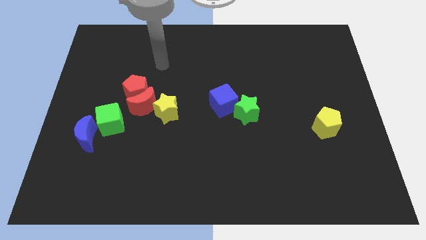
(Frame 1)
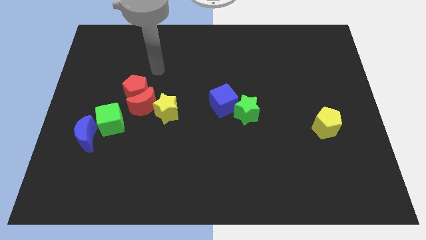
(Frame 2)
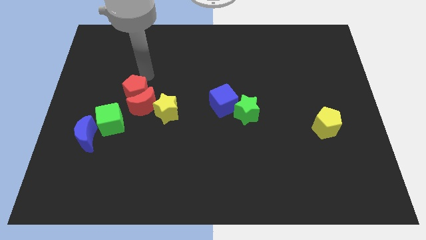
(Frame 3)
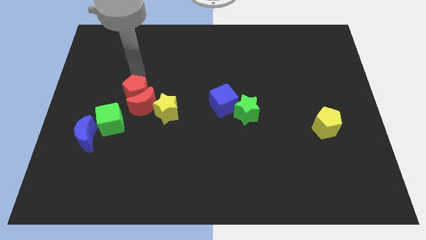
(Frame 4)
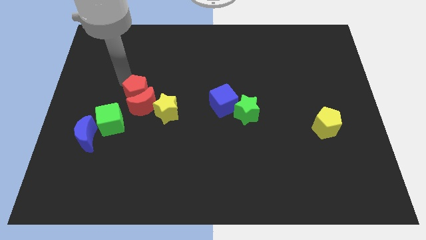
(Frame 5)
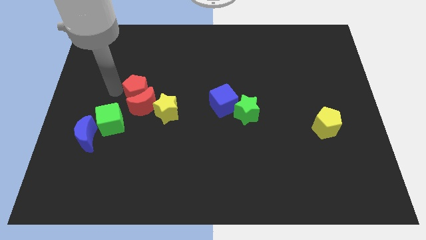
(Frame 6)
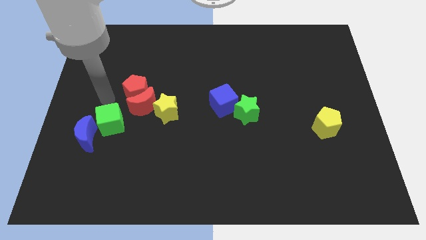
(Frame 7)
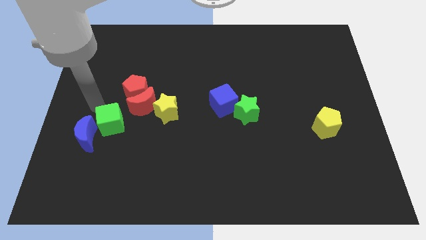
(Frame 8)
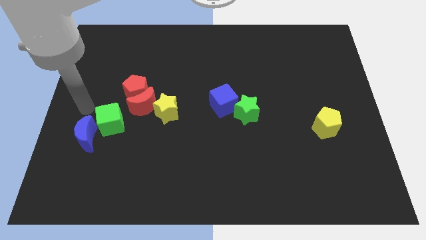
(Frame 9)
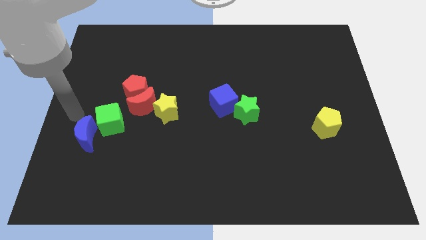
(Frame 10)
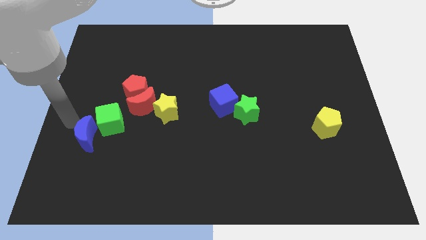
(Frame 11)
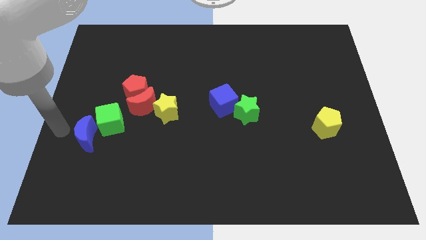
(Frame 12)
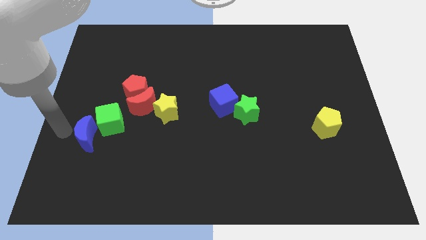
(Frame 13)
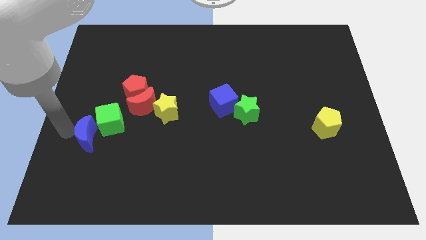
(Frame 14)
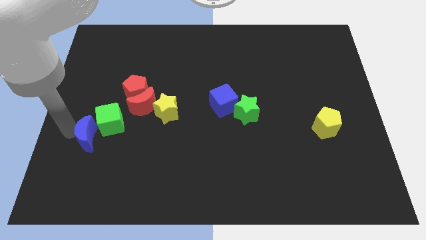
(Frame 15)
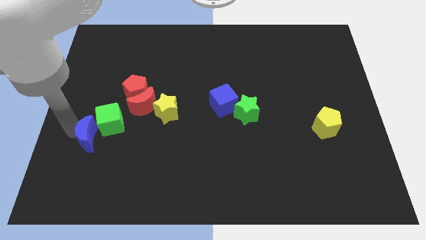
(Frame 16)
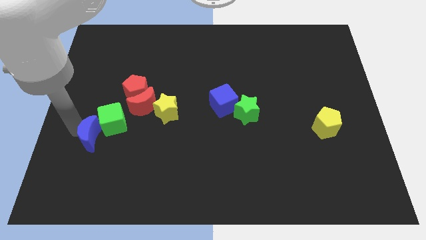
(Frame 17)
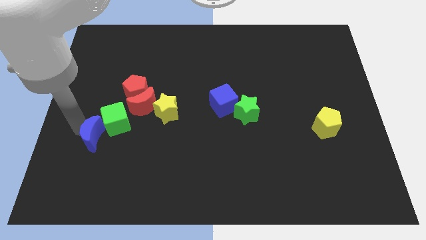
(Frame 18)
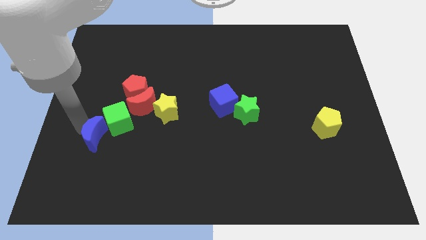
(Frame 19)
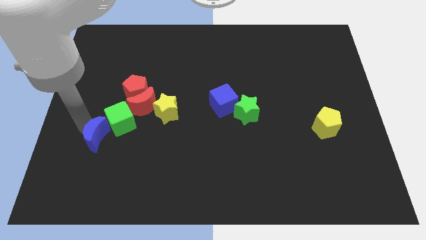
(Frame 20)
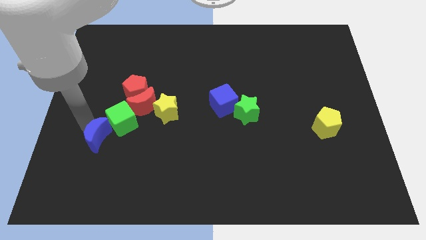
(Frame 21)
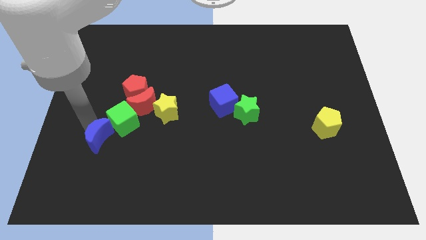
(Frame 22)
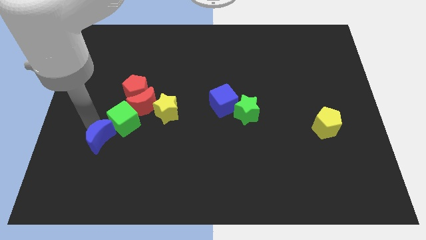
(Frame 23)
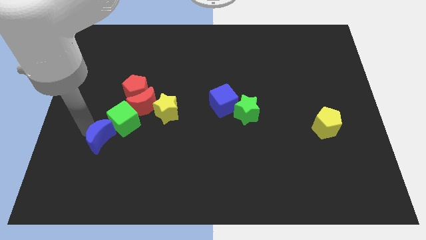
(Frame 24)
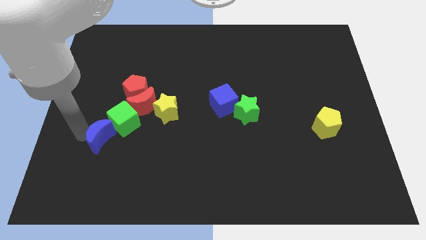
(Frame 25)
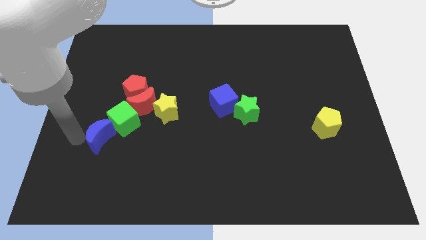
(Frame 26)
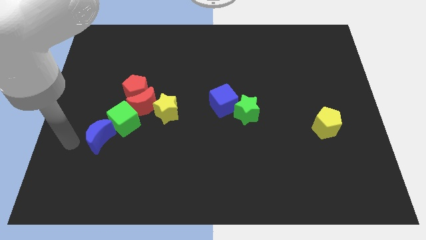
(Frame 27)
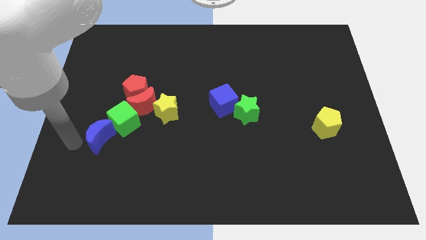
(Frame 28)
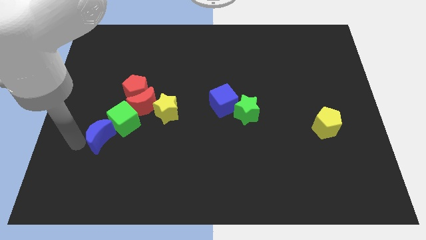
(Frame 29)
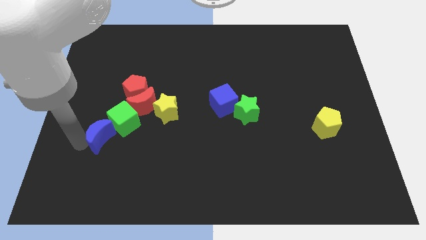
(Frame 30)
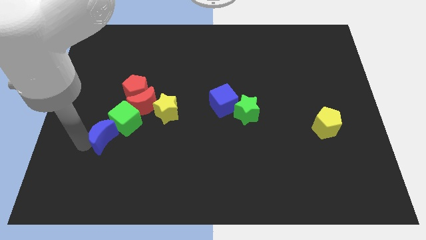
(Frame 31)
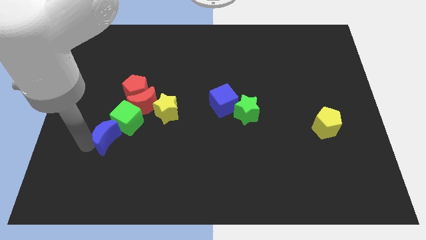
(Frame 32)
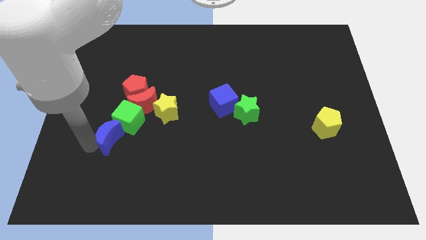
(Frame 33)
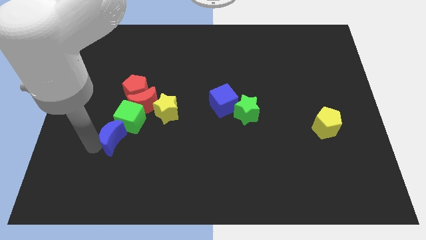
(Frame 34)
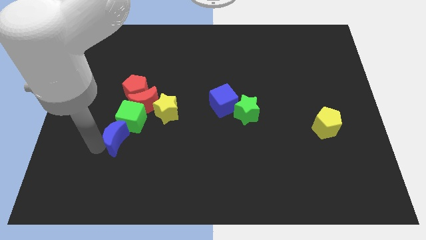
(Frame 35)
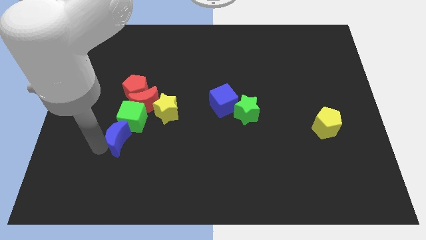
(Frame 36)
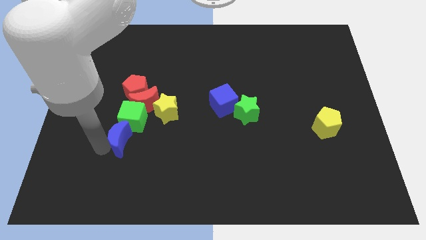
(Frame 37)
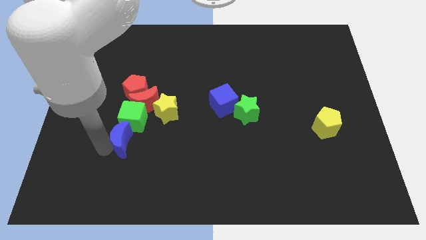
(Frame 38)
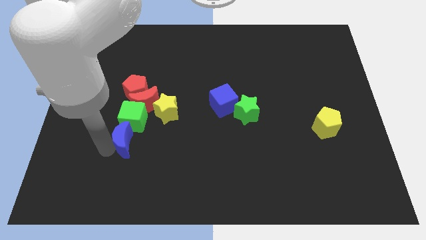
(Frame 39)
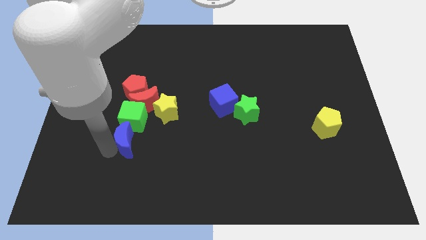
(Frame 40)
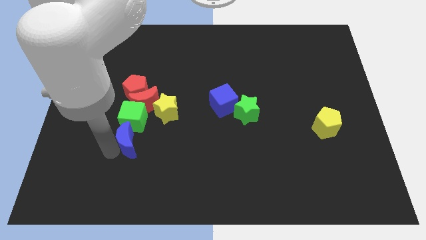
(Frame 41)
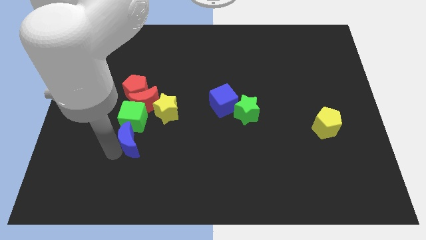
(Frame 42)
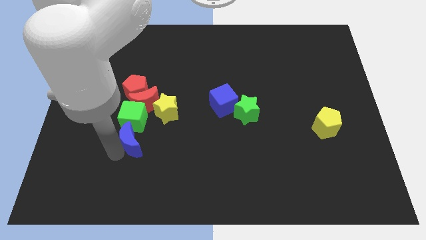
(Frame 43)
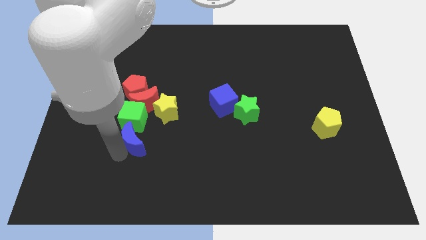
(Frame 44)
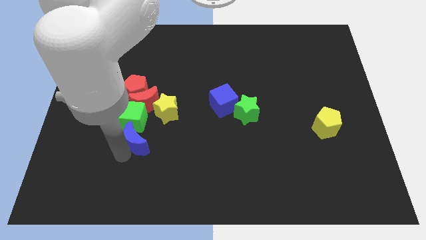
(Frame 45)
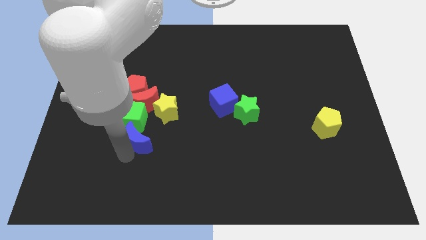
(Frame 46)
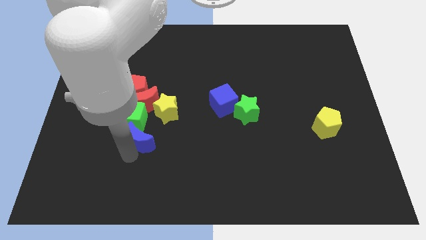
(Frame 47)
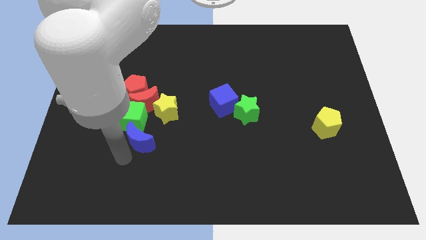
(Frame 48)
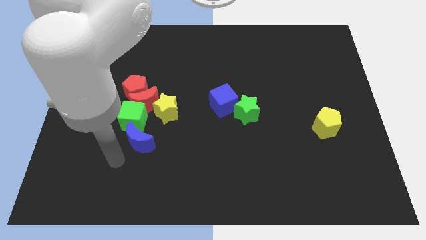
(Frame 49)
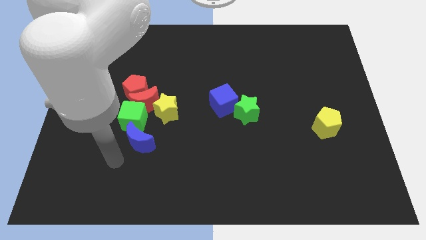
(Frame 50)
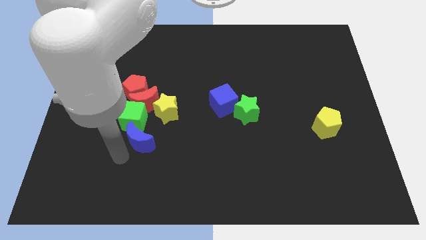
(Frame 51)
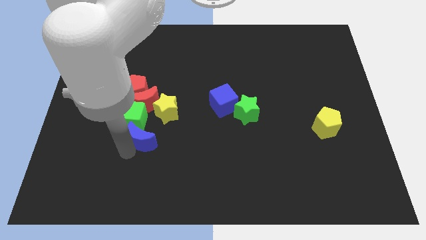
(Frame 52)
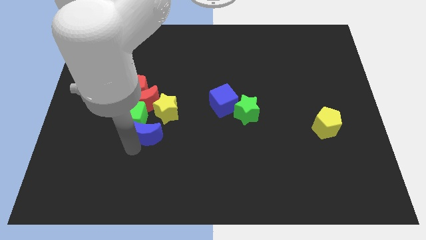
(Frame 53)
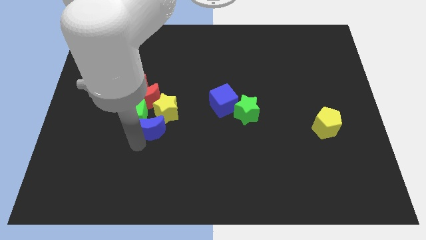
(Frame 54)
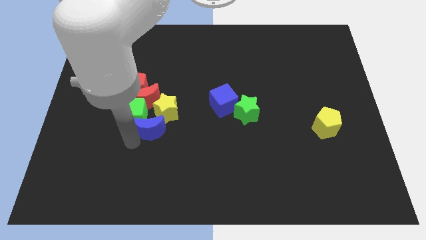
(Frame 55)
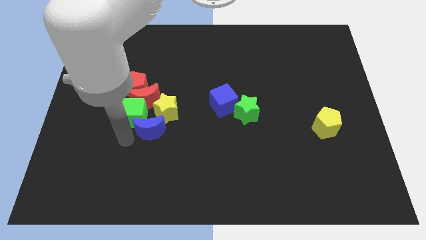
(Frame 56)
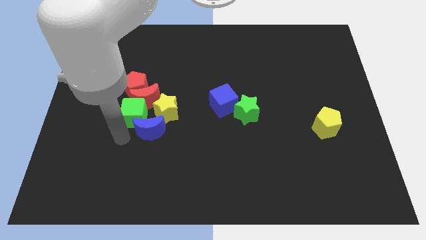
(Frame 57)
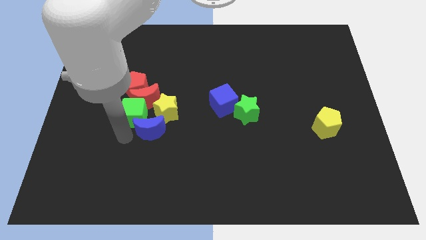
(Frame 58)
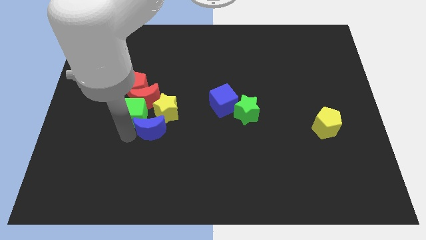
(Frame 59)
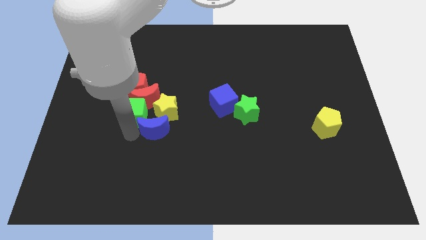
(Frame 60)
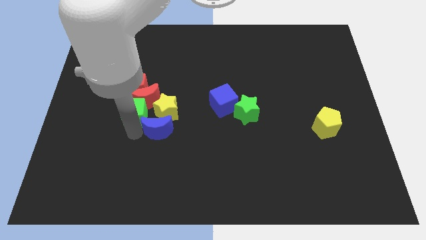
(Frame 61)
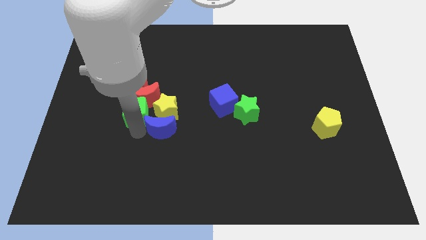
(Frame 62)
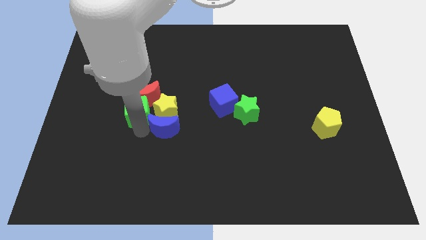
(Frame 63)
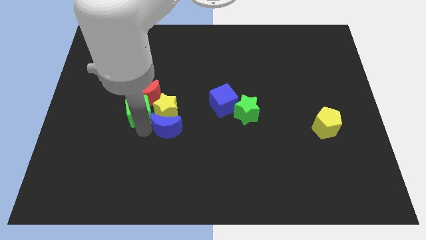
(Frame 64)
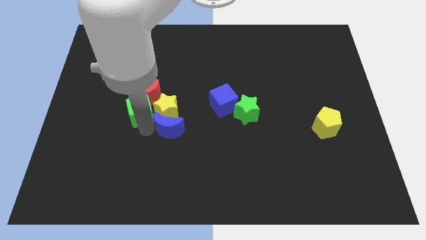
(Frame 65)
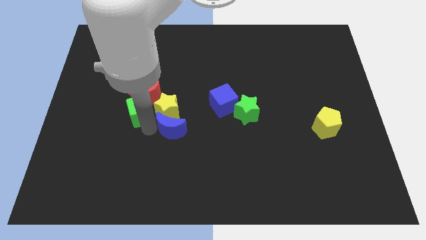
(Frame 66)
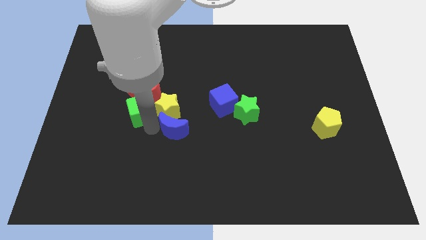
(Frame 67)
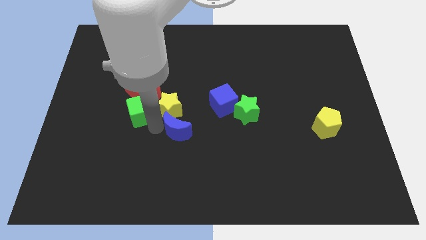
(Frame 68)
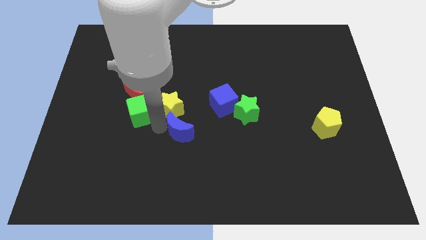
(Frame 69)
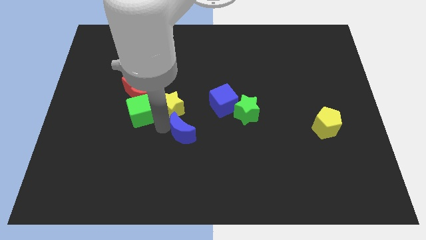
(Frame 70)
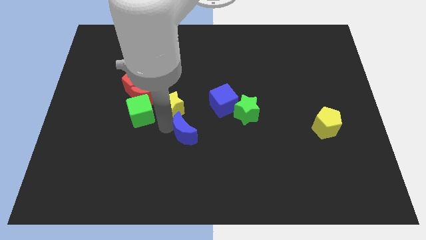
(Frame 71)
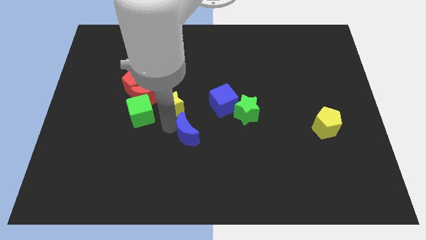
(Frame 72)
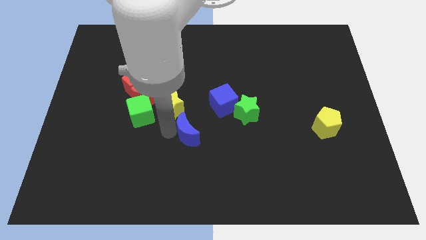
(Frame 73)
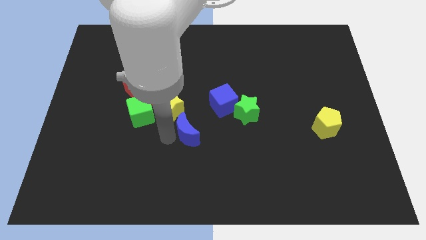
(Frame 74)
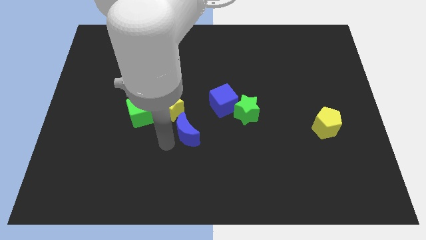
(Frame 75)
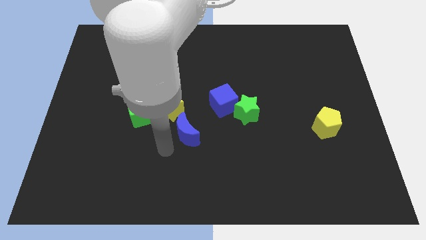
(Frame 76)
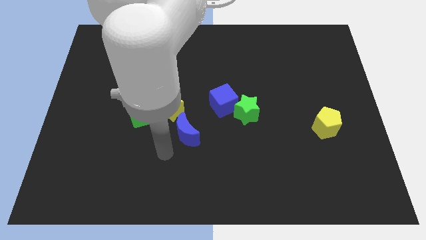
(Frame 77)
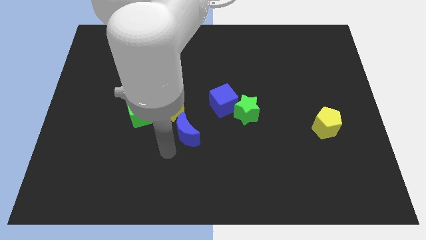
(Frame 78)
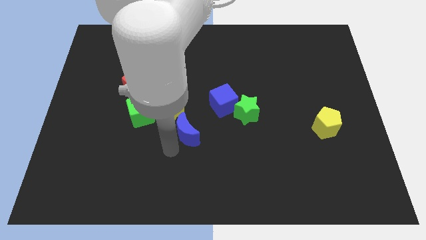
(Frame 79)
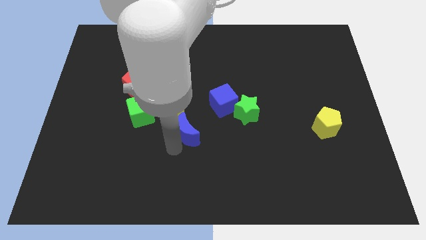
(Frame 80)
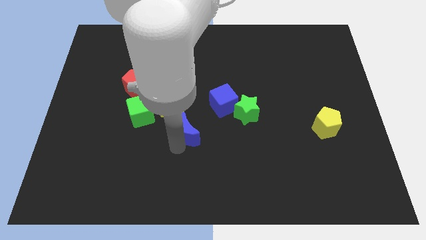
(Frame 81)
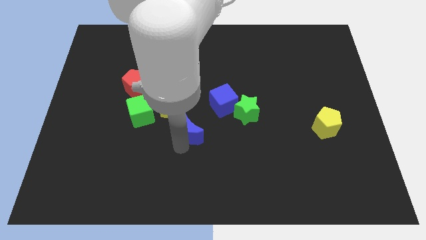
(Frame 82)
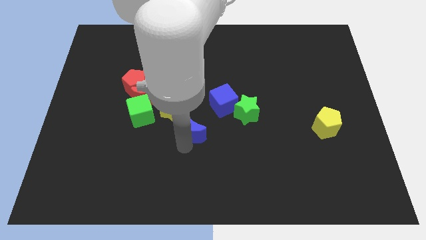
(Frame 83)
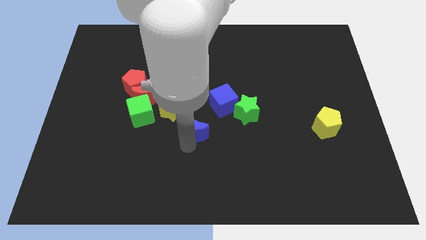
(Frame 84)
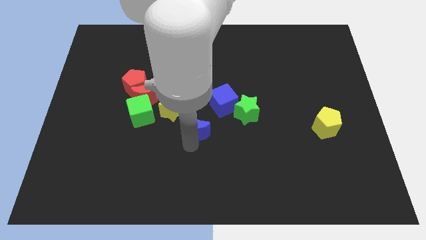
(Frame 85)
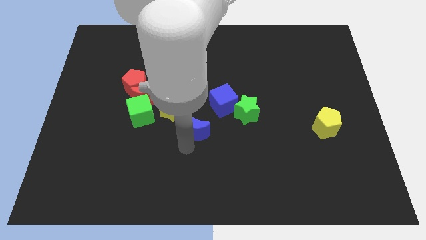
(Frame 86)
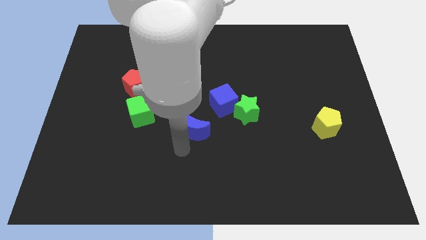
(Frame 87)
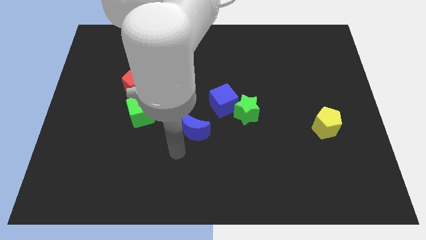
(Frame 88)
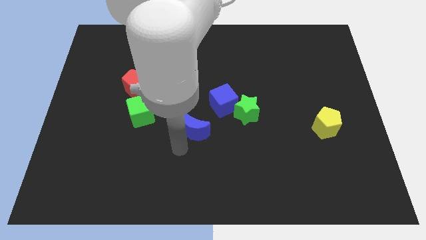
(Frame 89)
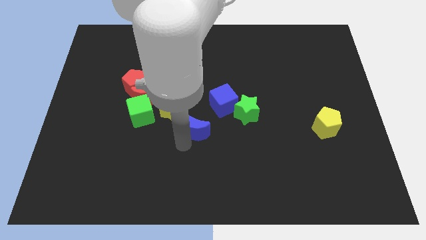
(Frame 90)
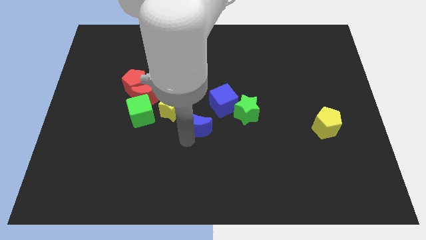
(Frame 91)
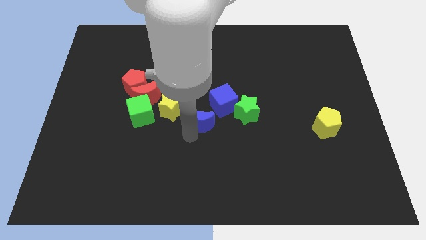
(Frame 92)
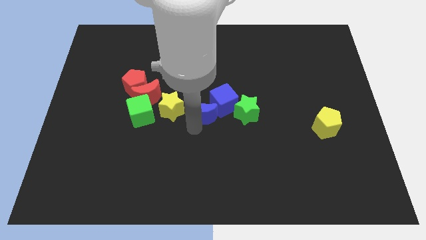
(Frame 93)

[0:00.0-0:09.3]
slide the blue moon close to the blue cube
